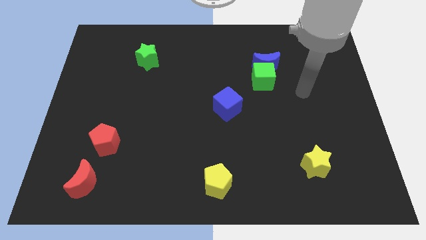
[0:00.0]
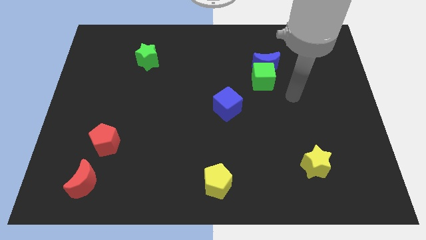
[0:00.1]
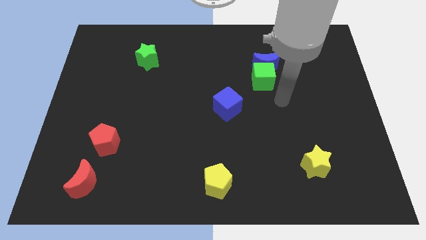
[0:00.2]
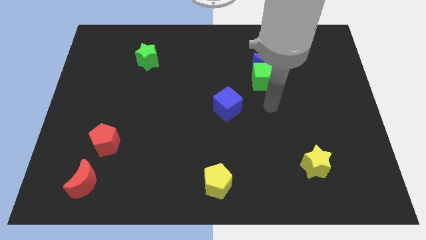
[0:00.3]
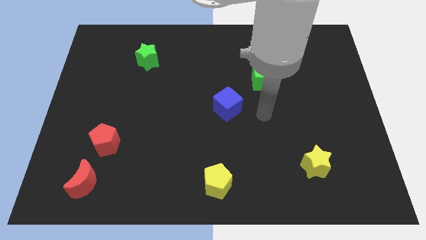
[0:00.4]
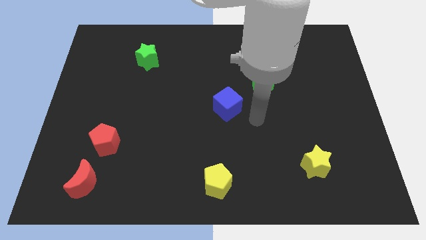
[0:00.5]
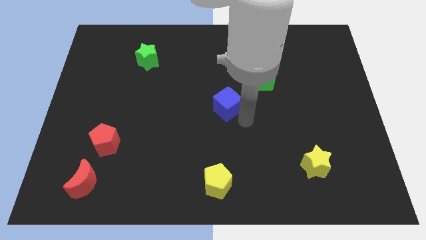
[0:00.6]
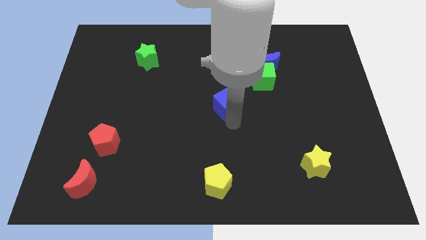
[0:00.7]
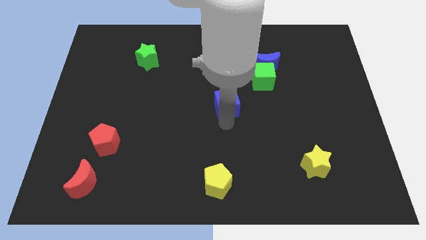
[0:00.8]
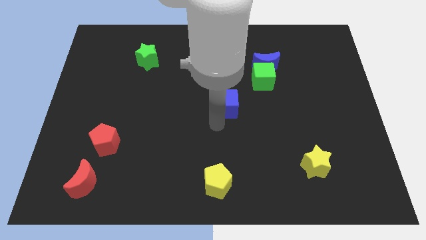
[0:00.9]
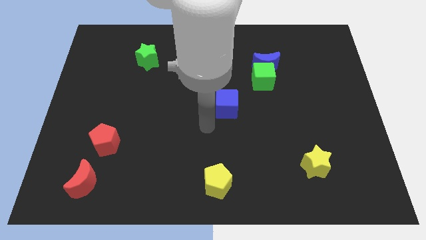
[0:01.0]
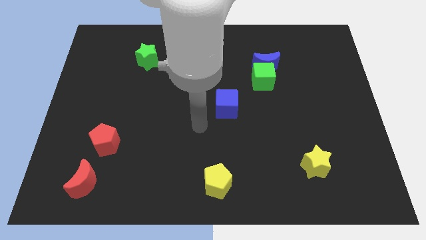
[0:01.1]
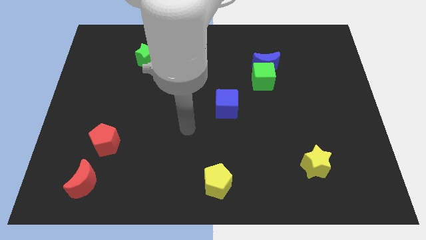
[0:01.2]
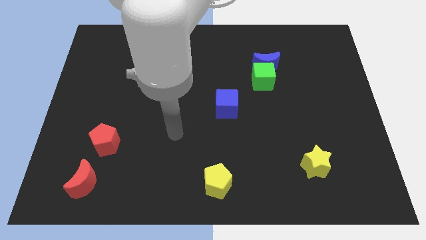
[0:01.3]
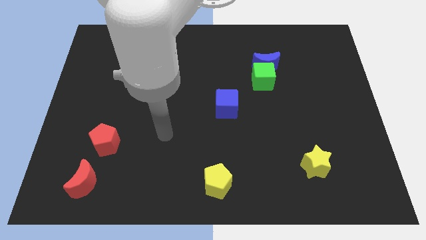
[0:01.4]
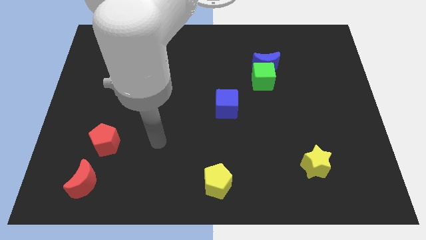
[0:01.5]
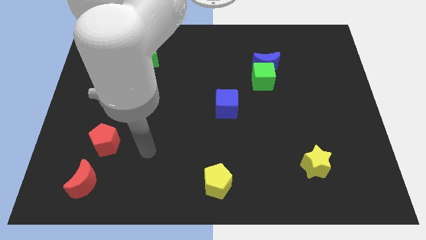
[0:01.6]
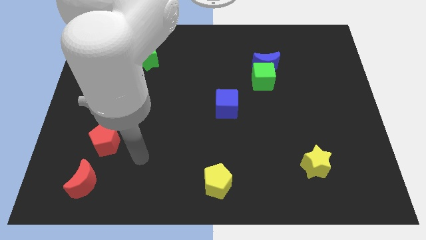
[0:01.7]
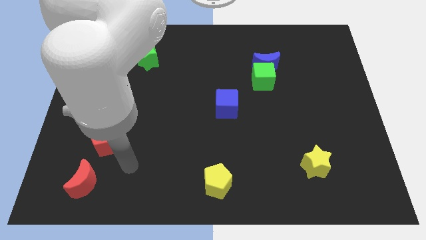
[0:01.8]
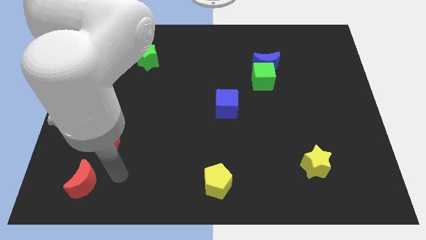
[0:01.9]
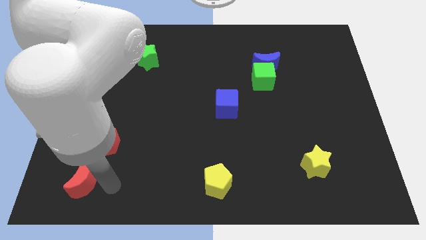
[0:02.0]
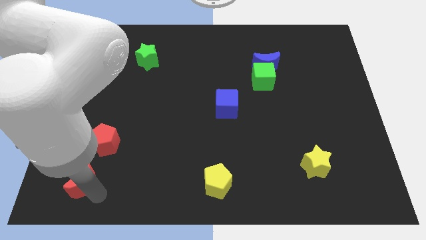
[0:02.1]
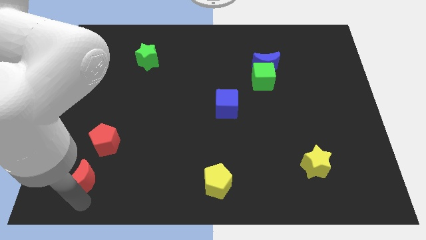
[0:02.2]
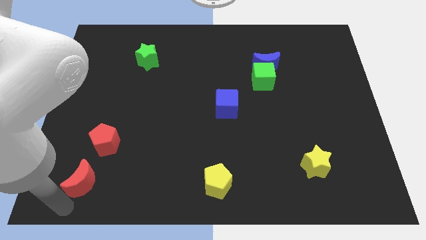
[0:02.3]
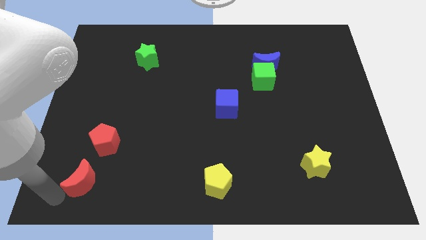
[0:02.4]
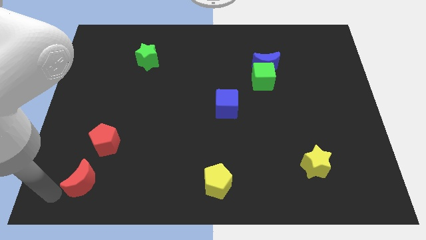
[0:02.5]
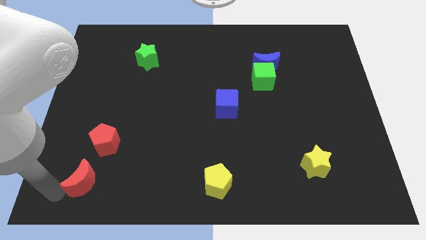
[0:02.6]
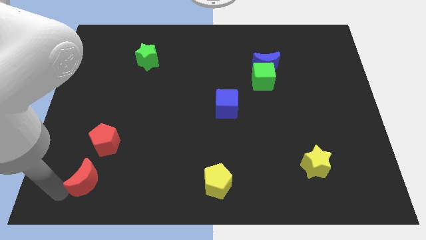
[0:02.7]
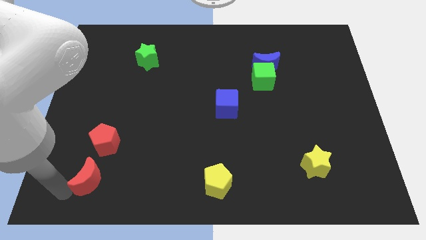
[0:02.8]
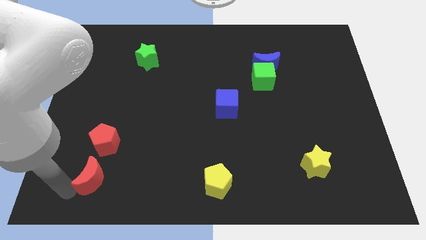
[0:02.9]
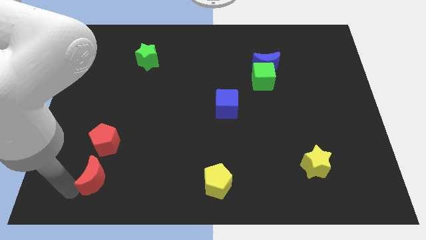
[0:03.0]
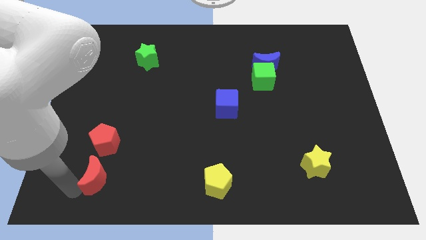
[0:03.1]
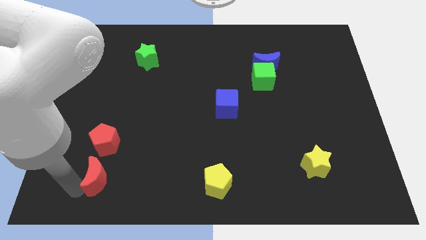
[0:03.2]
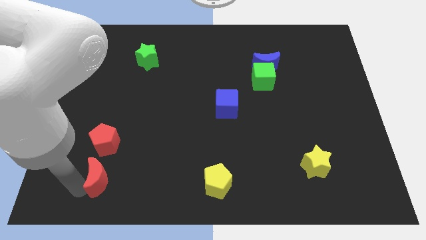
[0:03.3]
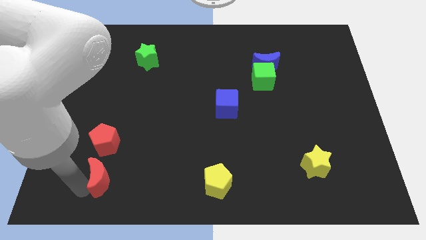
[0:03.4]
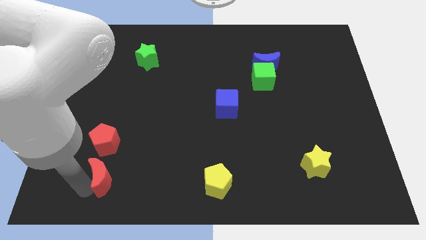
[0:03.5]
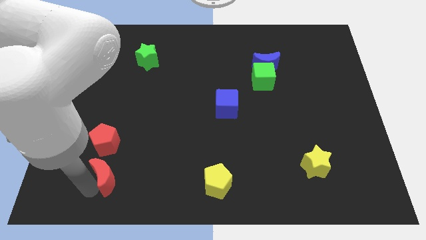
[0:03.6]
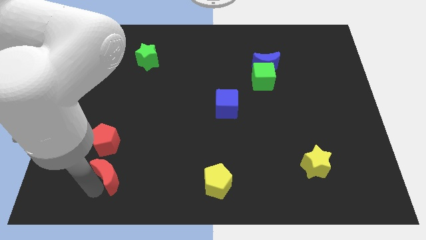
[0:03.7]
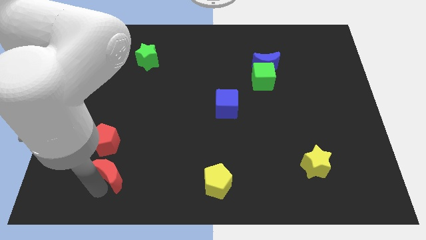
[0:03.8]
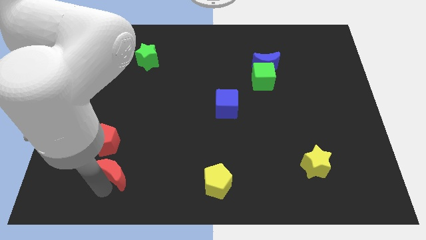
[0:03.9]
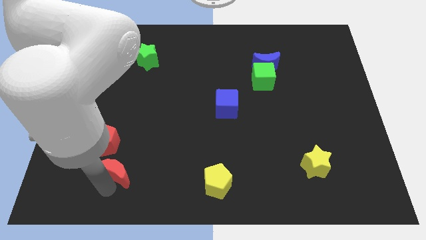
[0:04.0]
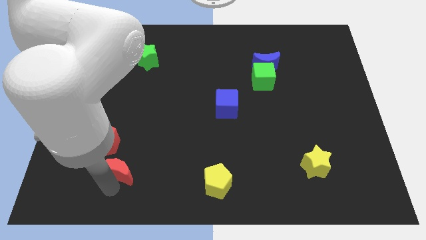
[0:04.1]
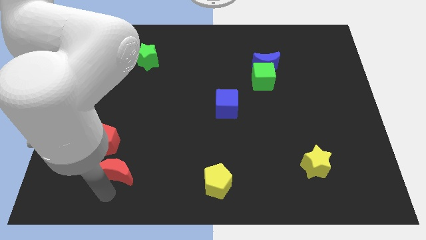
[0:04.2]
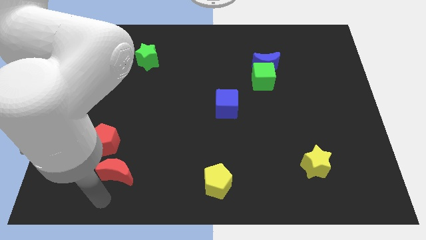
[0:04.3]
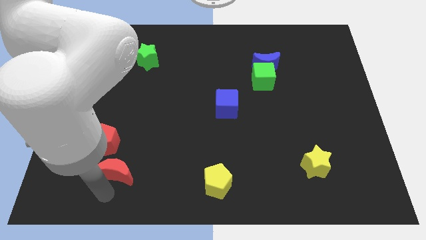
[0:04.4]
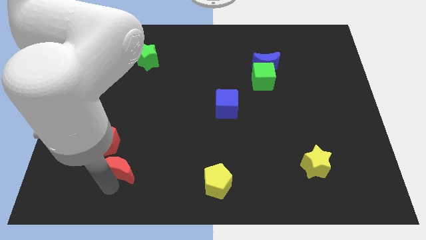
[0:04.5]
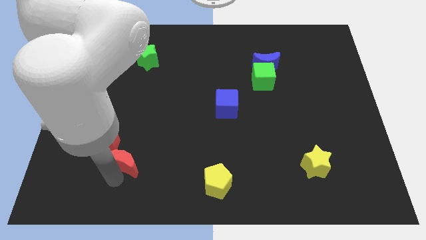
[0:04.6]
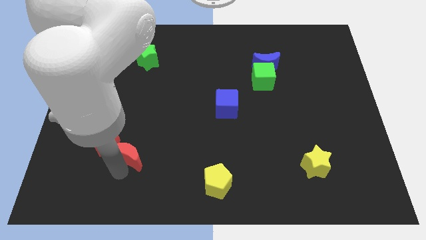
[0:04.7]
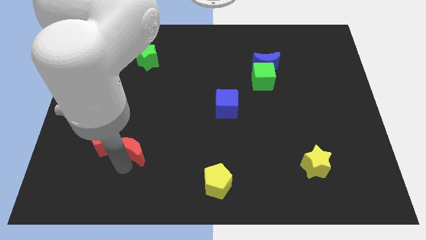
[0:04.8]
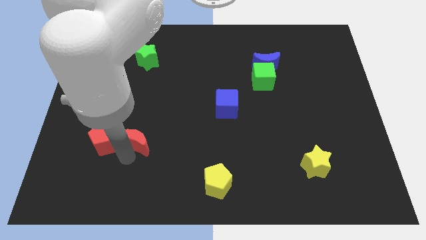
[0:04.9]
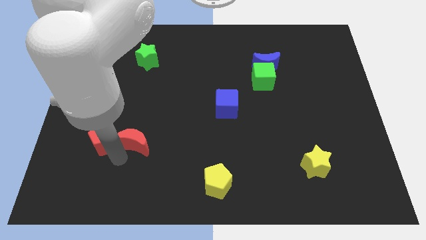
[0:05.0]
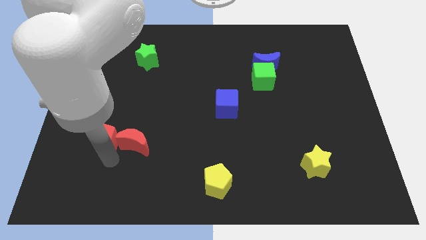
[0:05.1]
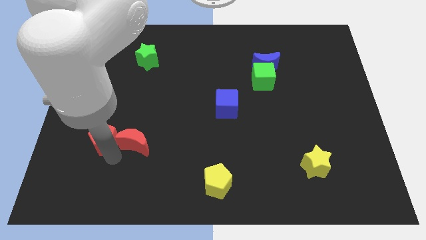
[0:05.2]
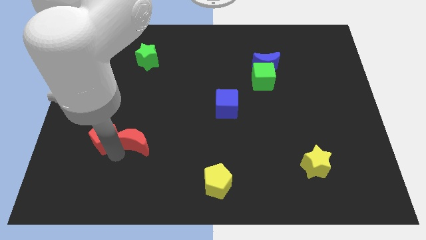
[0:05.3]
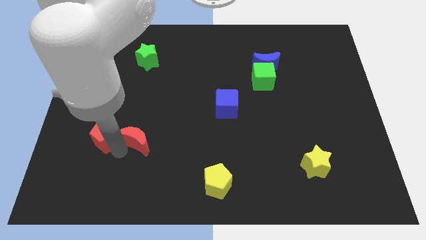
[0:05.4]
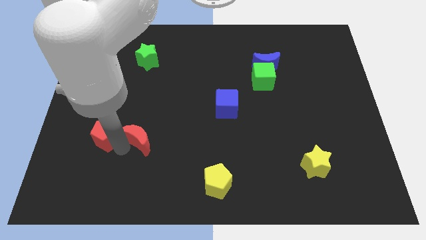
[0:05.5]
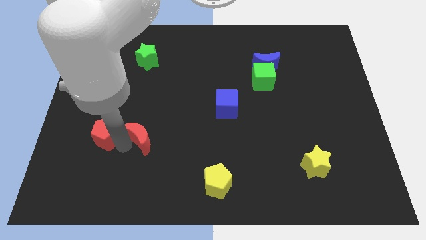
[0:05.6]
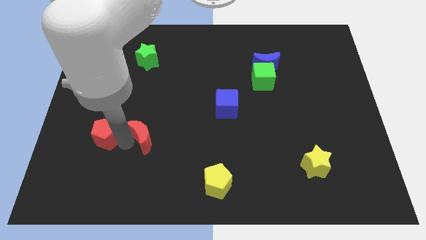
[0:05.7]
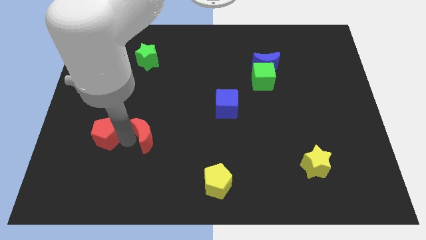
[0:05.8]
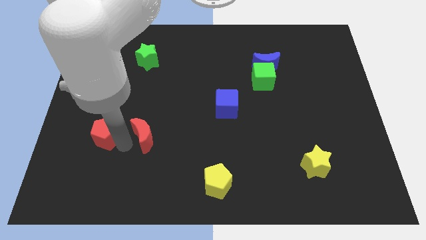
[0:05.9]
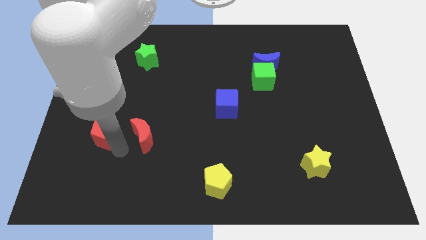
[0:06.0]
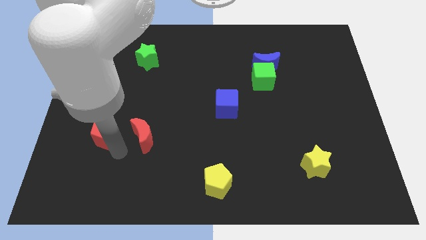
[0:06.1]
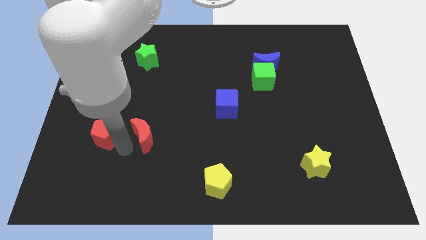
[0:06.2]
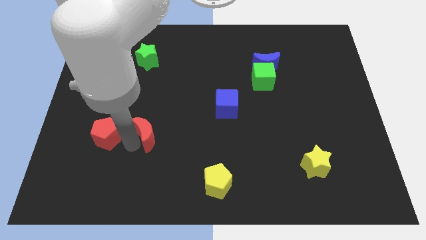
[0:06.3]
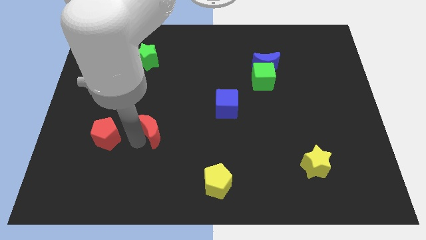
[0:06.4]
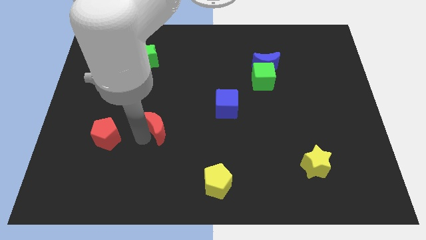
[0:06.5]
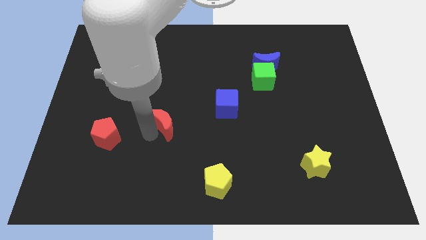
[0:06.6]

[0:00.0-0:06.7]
slide the red moon diagonally upwards and to the right

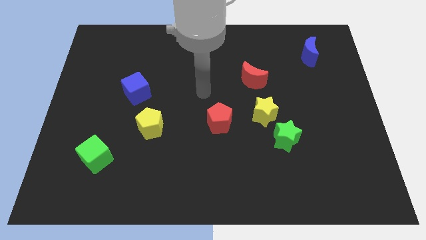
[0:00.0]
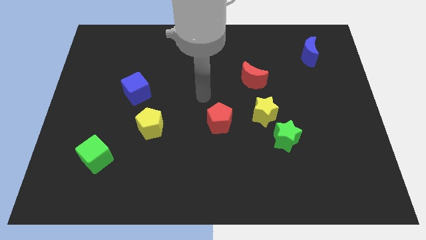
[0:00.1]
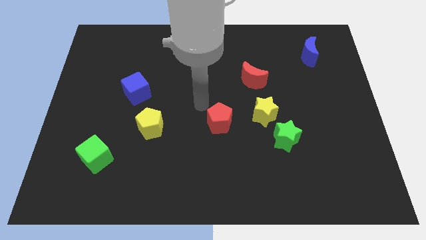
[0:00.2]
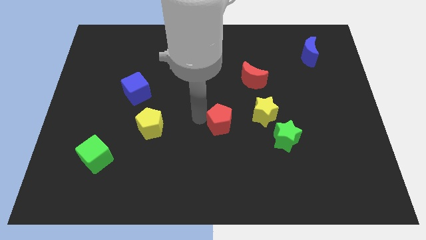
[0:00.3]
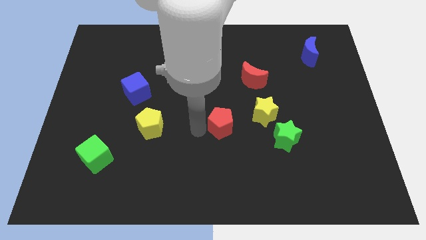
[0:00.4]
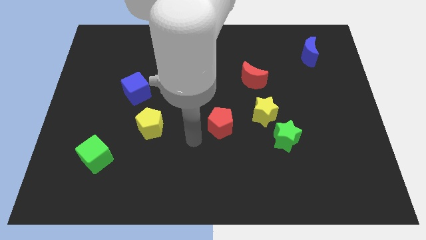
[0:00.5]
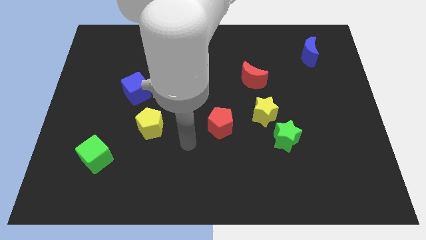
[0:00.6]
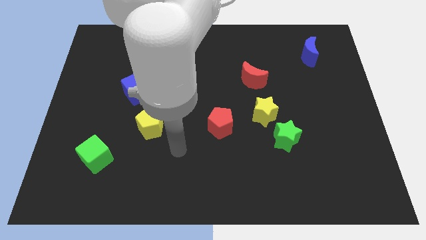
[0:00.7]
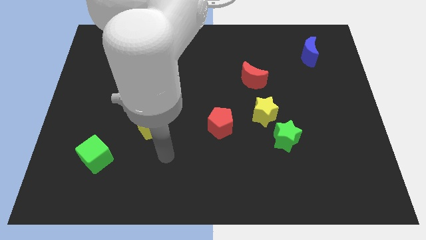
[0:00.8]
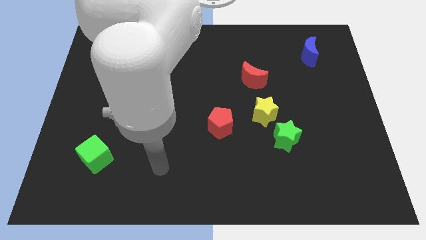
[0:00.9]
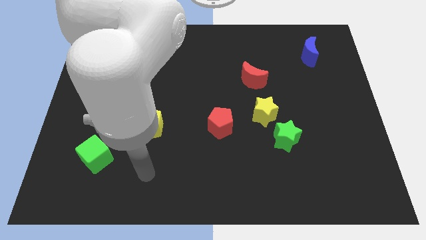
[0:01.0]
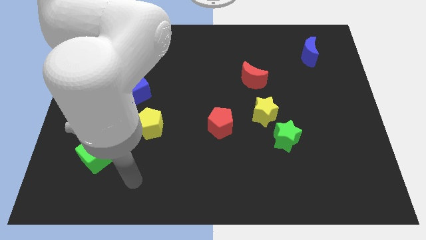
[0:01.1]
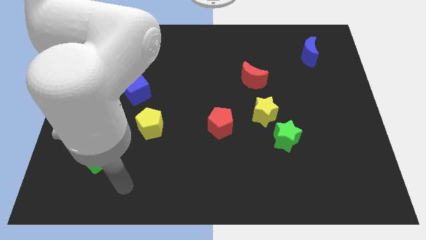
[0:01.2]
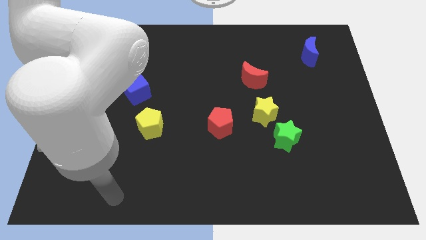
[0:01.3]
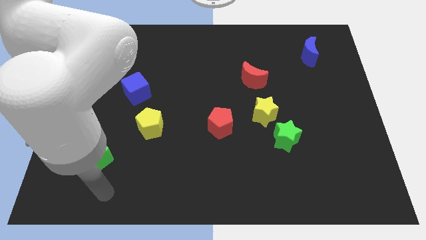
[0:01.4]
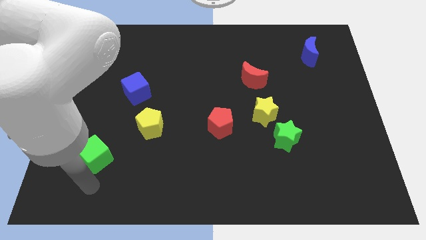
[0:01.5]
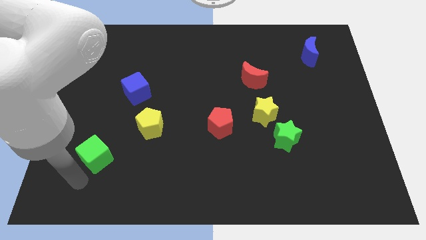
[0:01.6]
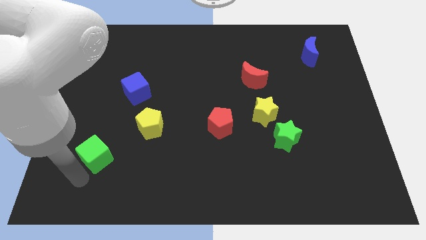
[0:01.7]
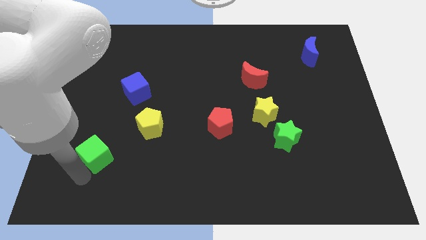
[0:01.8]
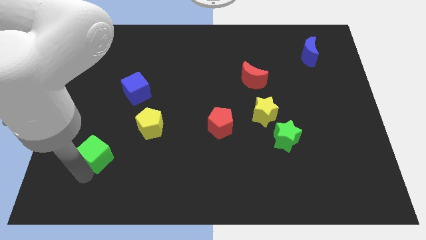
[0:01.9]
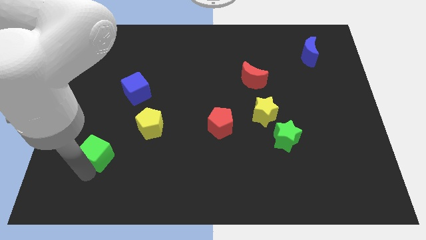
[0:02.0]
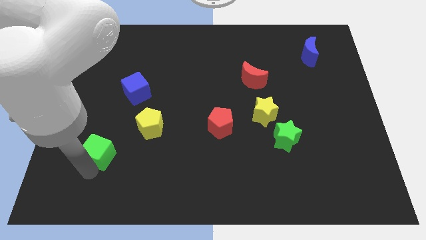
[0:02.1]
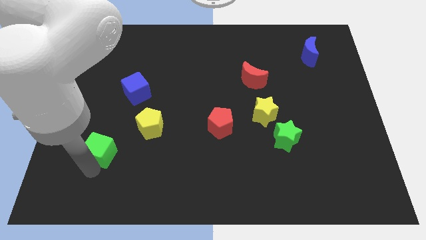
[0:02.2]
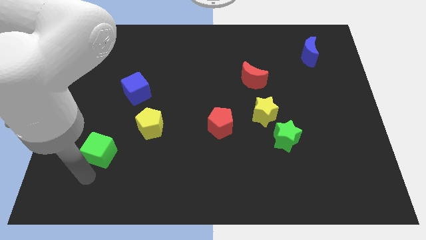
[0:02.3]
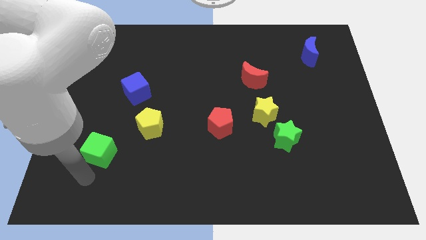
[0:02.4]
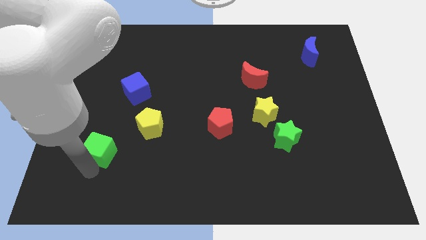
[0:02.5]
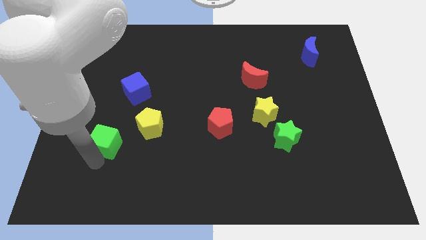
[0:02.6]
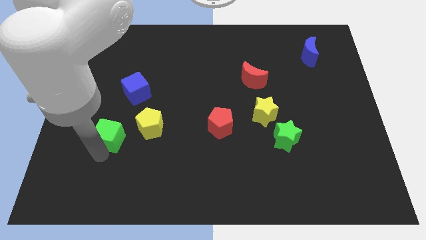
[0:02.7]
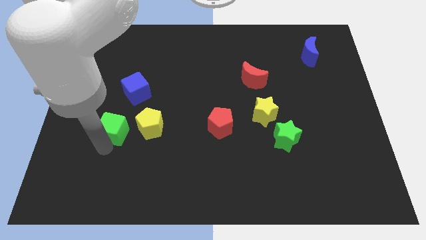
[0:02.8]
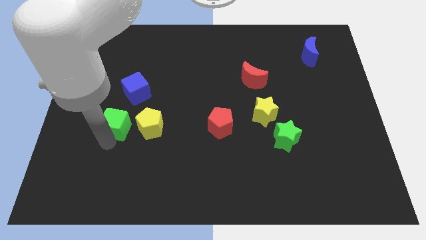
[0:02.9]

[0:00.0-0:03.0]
push the green cube a little bit upwards and right diagonally
